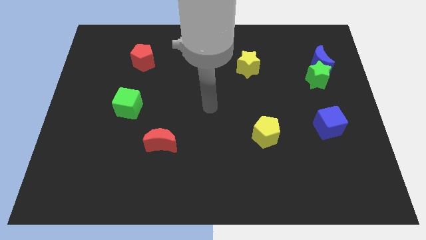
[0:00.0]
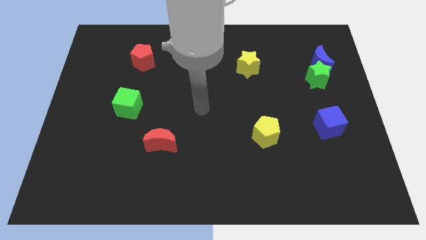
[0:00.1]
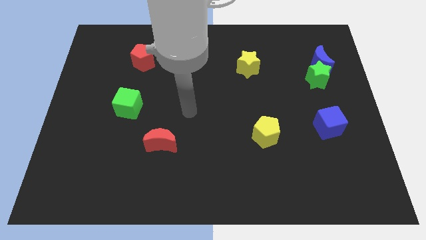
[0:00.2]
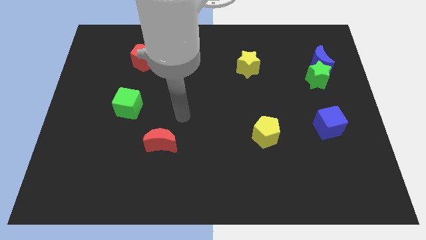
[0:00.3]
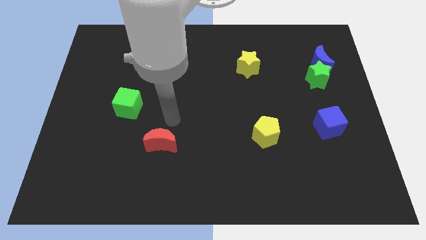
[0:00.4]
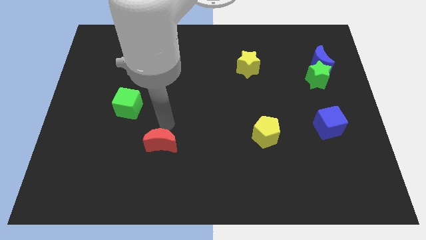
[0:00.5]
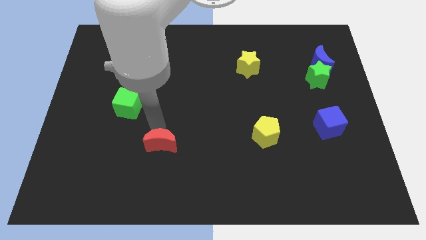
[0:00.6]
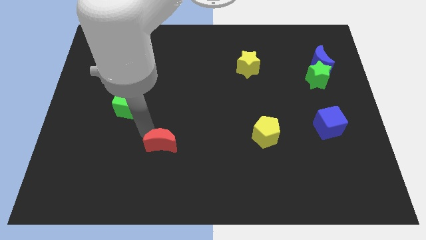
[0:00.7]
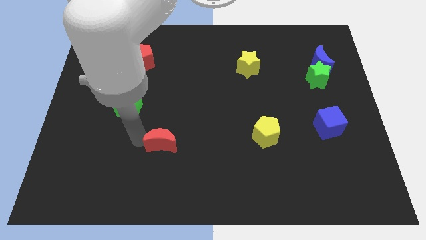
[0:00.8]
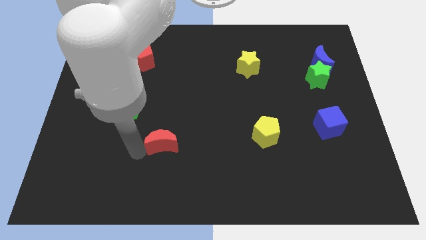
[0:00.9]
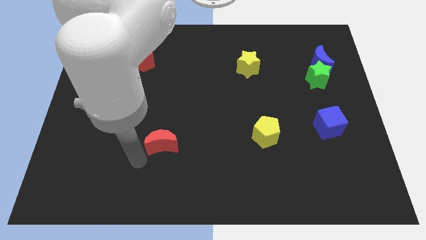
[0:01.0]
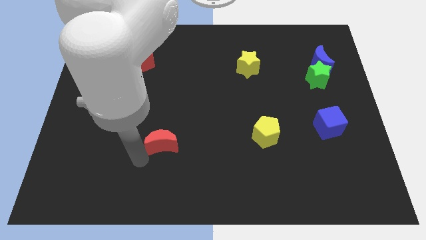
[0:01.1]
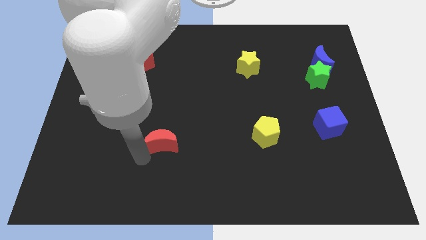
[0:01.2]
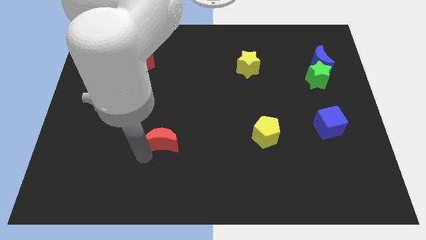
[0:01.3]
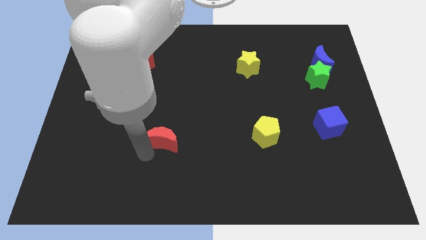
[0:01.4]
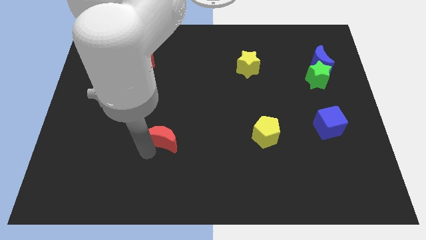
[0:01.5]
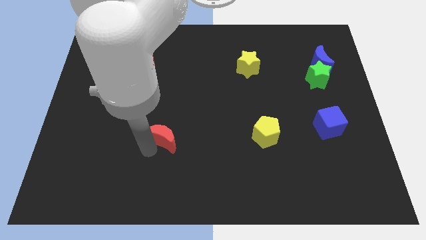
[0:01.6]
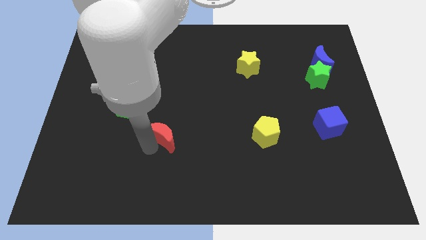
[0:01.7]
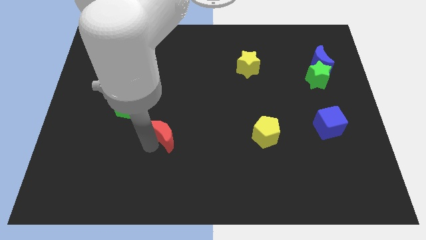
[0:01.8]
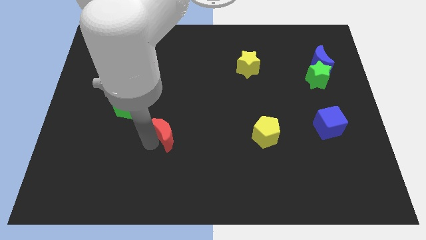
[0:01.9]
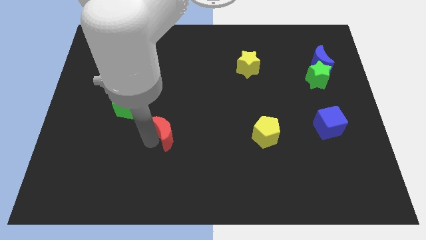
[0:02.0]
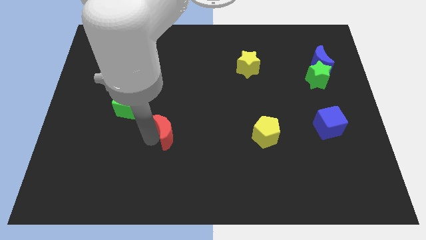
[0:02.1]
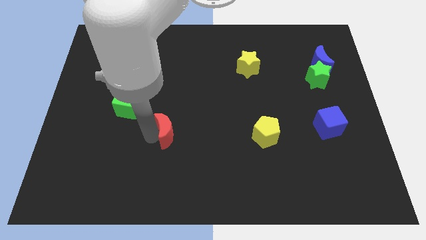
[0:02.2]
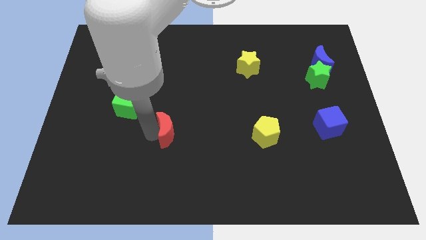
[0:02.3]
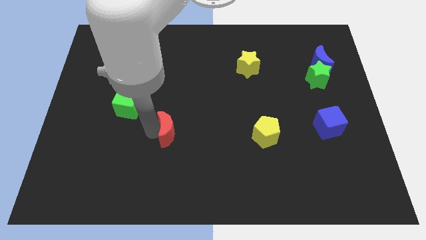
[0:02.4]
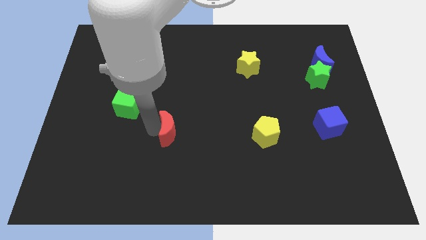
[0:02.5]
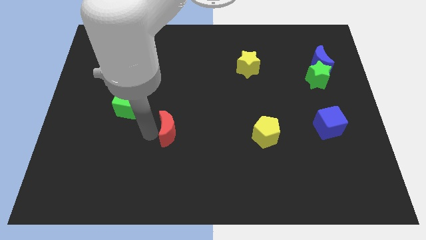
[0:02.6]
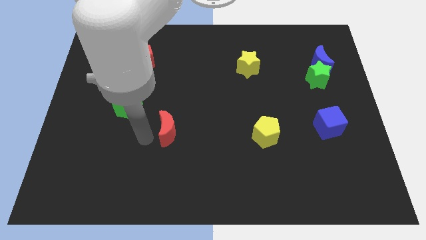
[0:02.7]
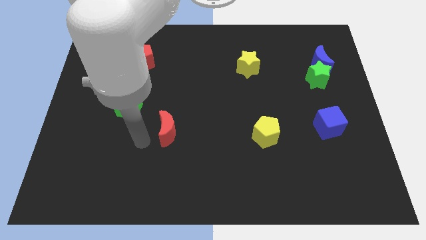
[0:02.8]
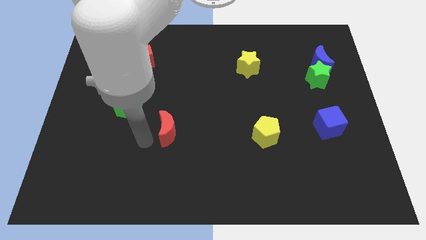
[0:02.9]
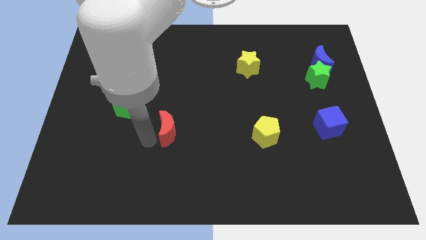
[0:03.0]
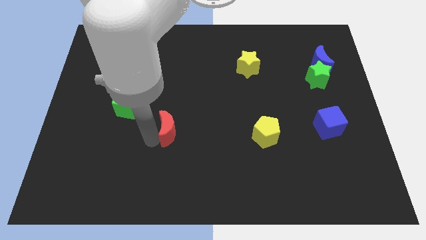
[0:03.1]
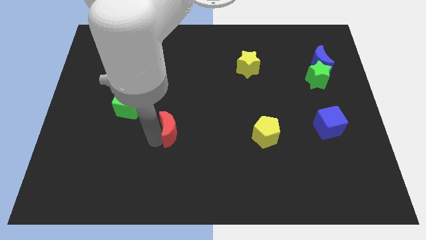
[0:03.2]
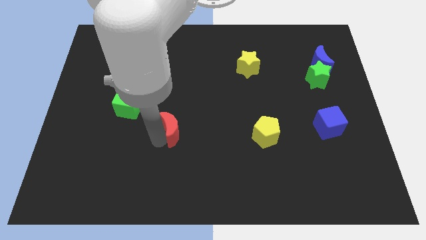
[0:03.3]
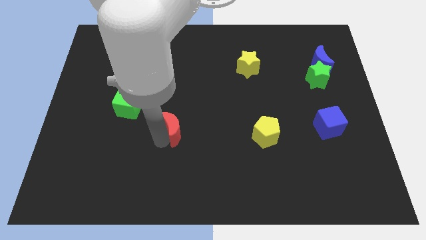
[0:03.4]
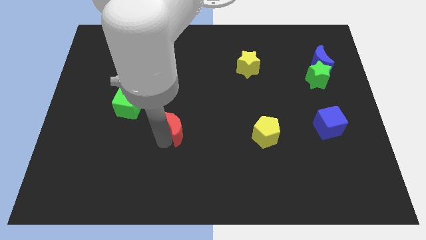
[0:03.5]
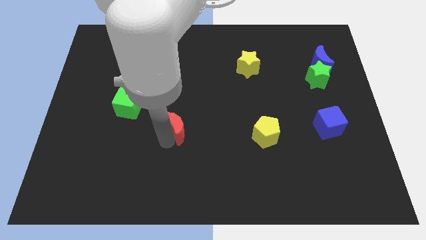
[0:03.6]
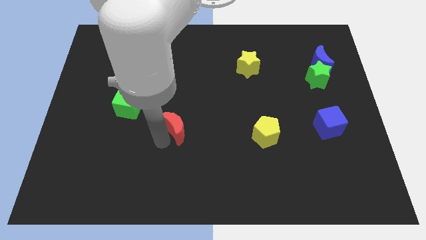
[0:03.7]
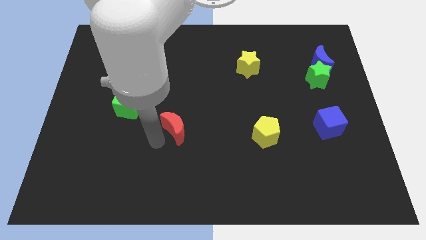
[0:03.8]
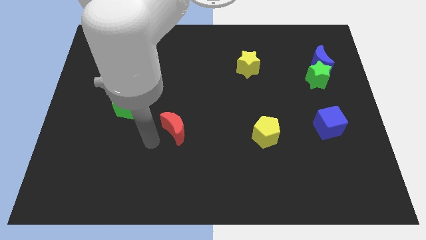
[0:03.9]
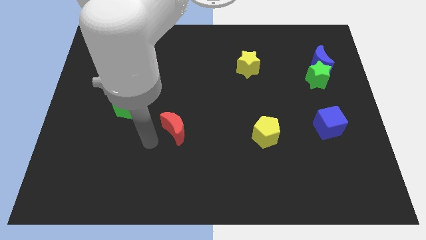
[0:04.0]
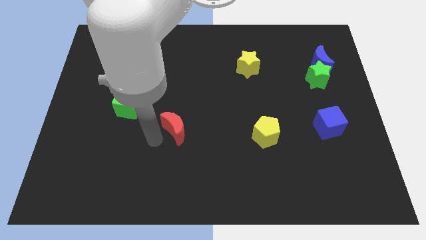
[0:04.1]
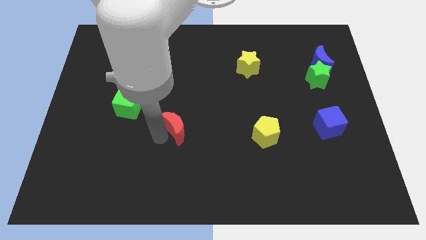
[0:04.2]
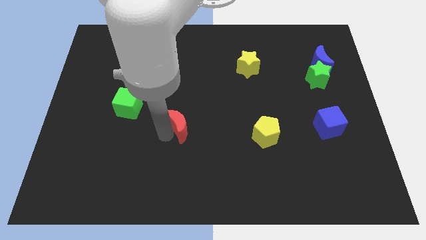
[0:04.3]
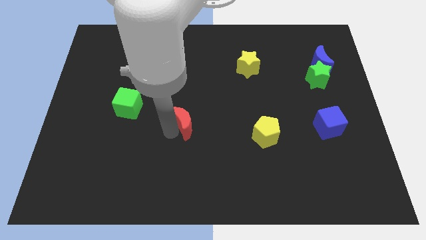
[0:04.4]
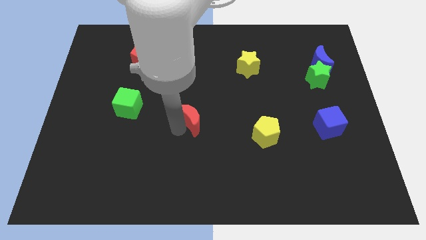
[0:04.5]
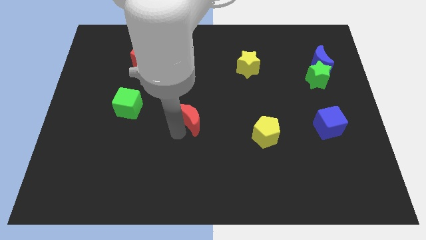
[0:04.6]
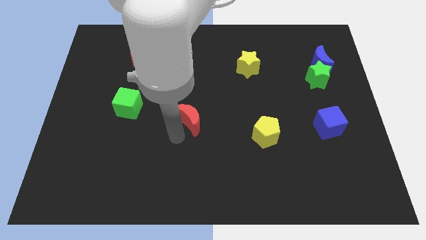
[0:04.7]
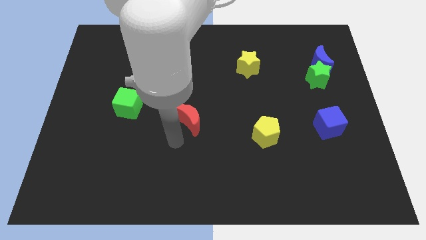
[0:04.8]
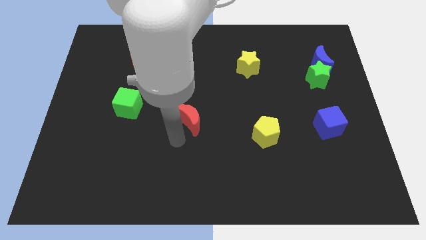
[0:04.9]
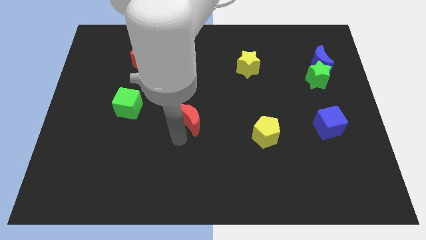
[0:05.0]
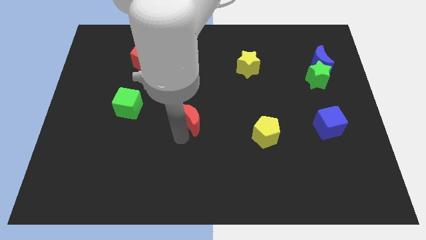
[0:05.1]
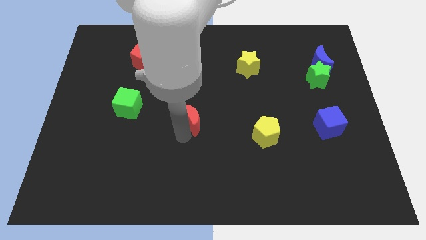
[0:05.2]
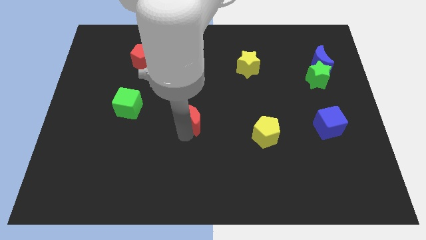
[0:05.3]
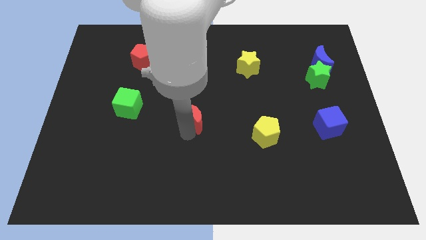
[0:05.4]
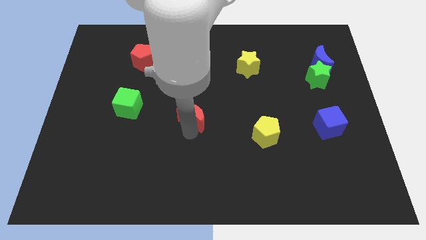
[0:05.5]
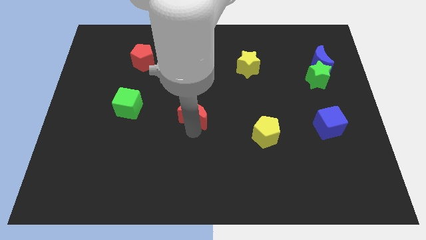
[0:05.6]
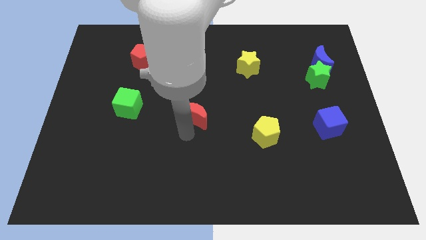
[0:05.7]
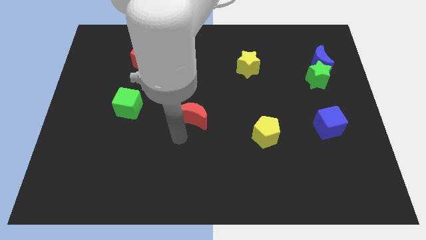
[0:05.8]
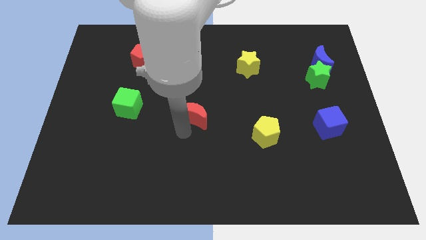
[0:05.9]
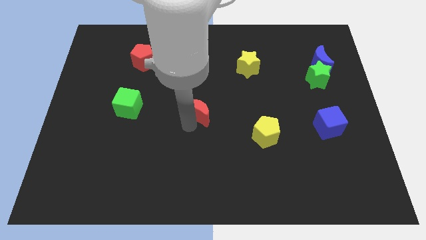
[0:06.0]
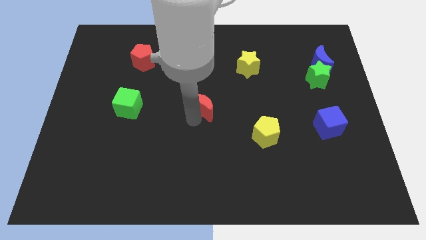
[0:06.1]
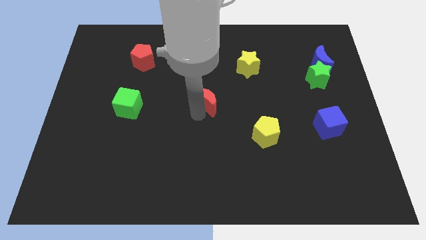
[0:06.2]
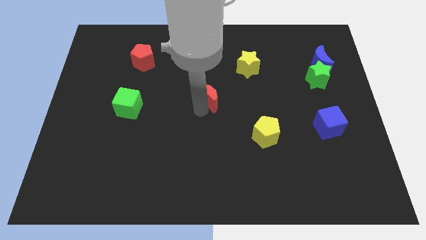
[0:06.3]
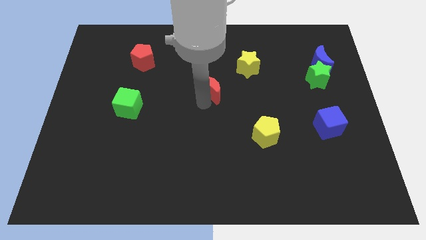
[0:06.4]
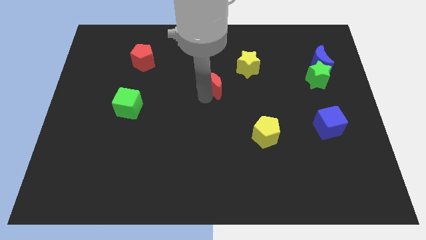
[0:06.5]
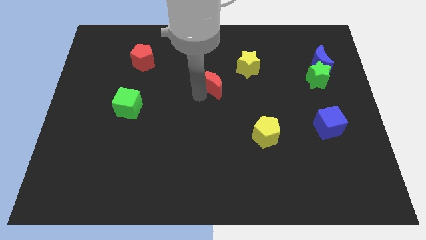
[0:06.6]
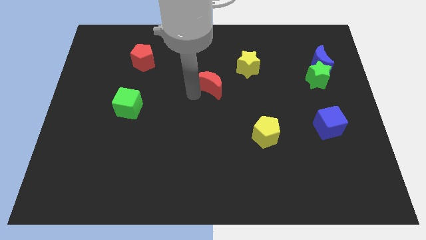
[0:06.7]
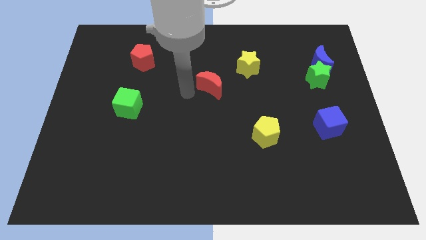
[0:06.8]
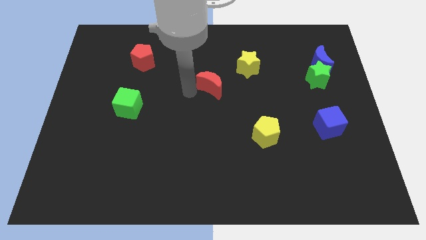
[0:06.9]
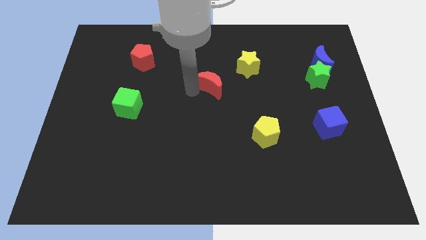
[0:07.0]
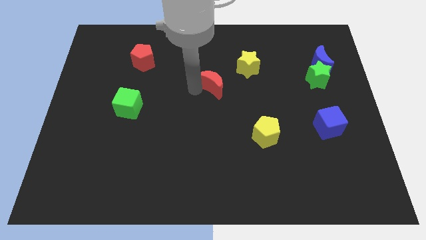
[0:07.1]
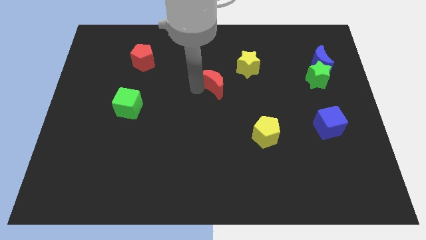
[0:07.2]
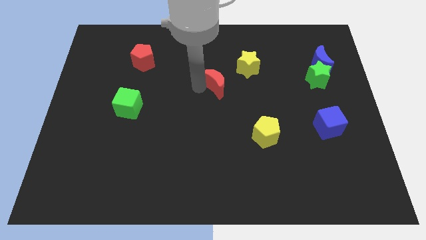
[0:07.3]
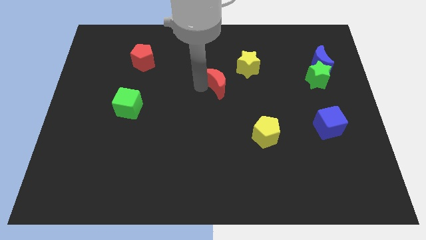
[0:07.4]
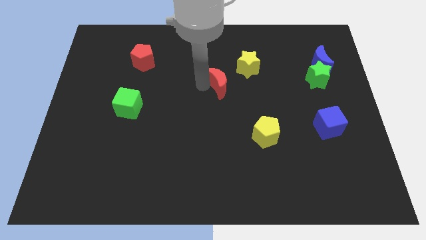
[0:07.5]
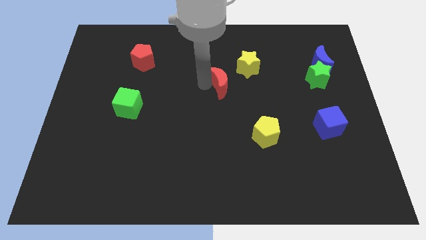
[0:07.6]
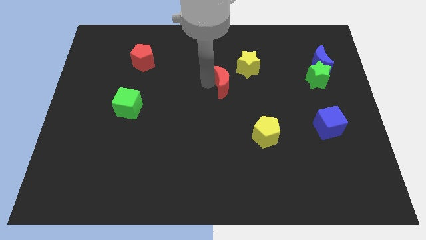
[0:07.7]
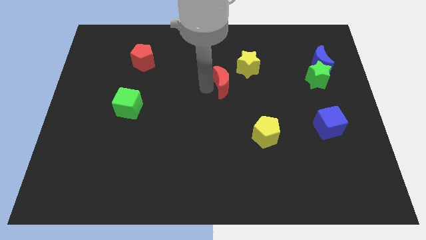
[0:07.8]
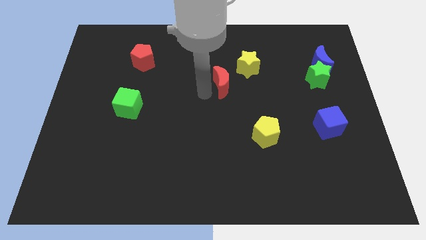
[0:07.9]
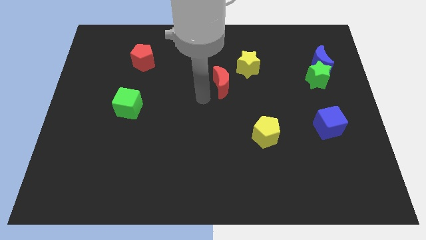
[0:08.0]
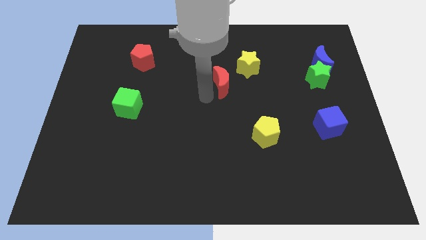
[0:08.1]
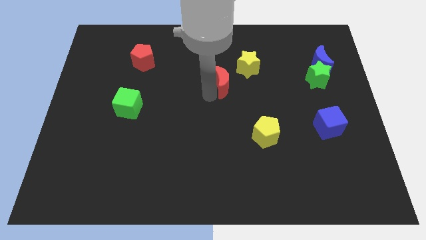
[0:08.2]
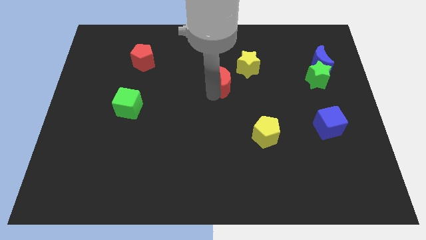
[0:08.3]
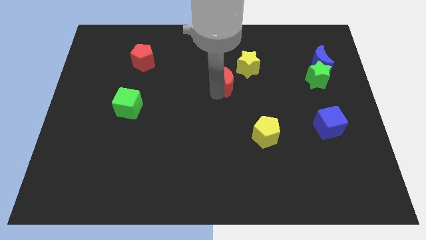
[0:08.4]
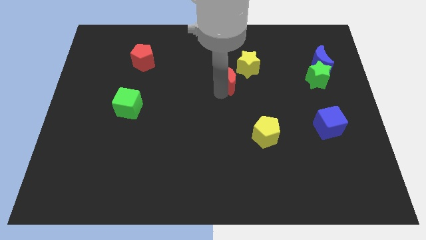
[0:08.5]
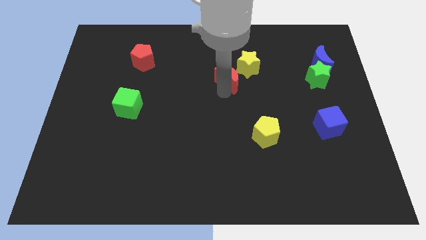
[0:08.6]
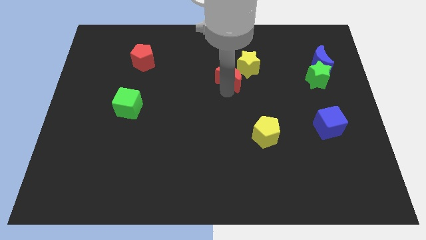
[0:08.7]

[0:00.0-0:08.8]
put the red moon close to the yellow star
